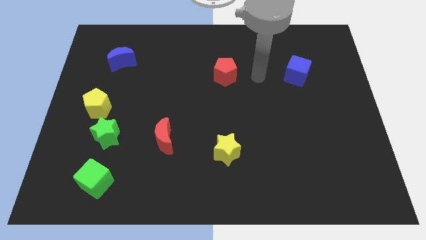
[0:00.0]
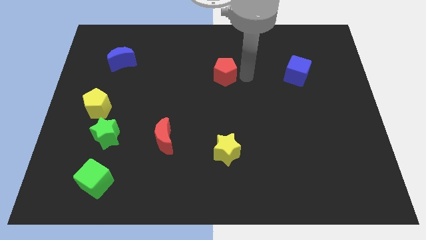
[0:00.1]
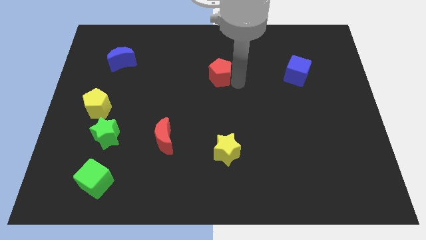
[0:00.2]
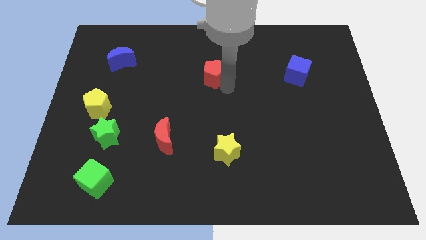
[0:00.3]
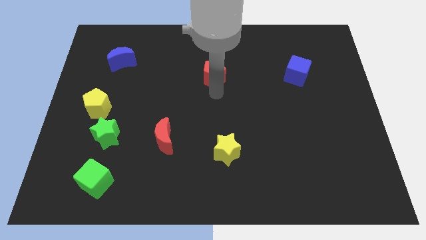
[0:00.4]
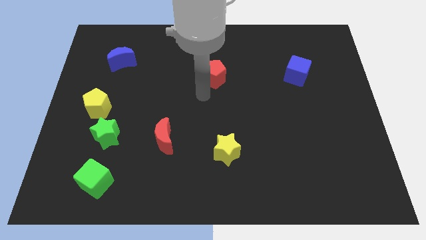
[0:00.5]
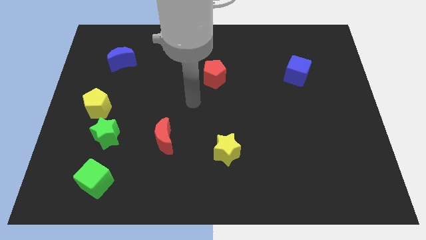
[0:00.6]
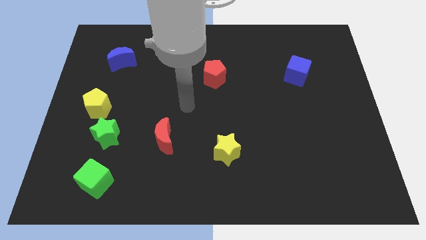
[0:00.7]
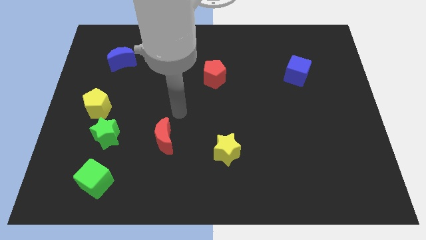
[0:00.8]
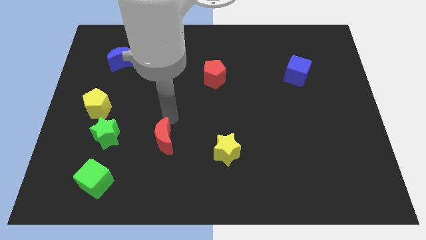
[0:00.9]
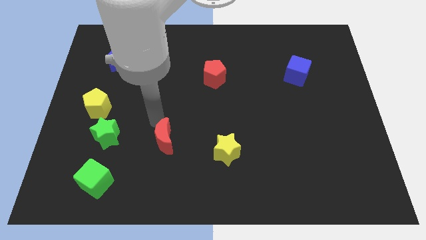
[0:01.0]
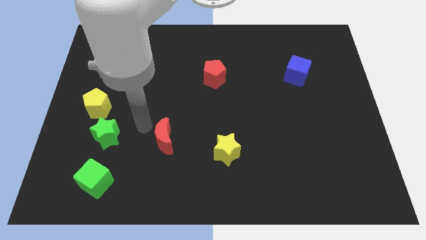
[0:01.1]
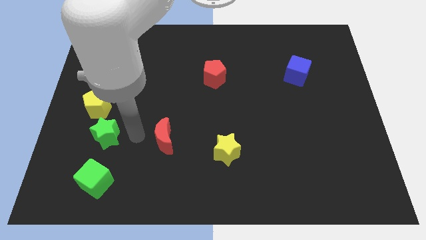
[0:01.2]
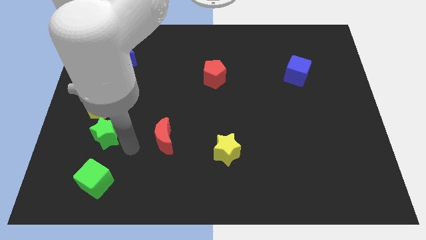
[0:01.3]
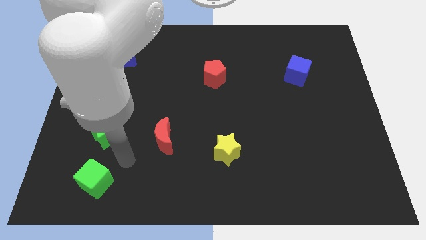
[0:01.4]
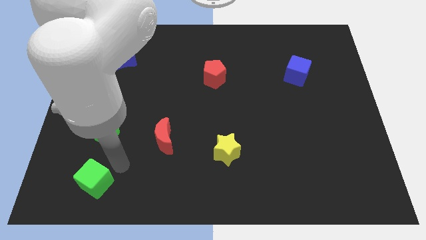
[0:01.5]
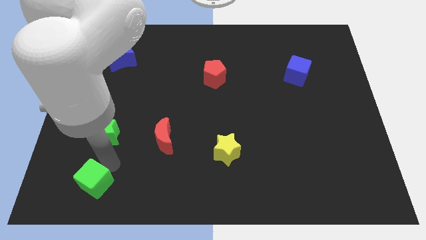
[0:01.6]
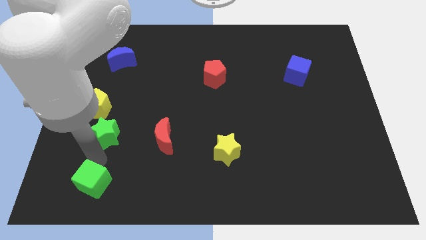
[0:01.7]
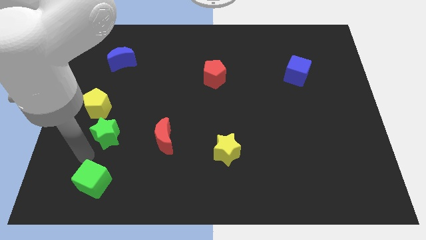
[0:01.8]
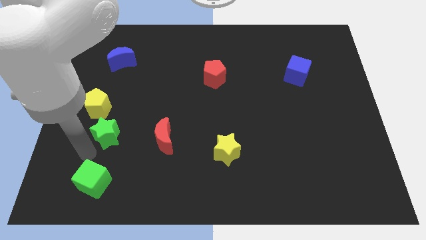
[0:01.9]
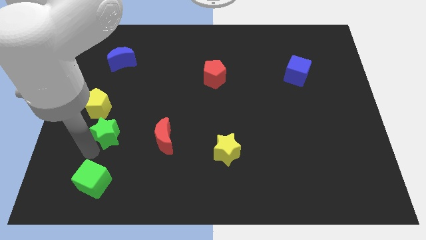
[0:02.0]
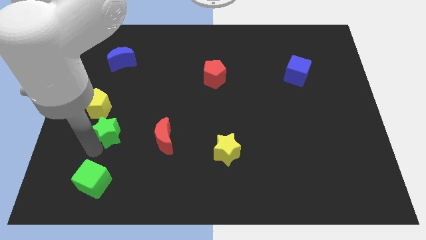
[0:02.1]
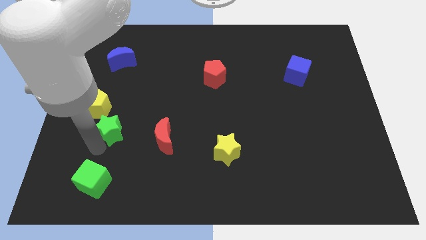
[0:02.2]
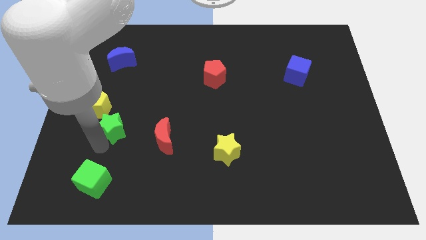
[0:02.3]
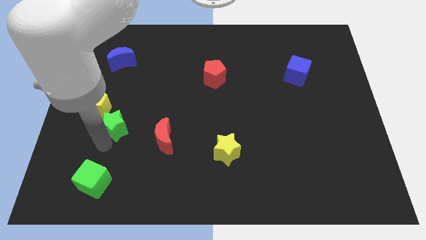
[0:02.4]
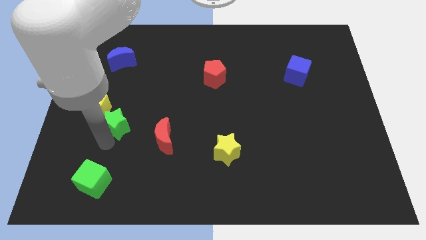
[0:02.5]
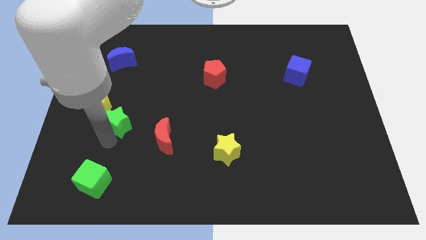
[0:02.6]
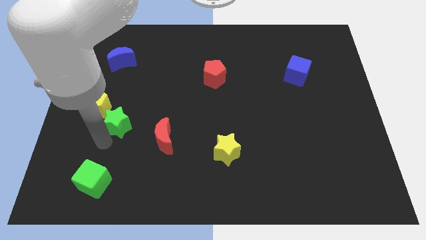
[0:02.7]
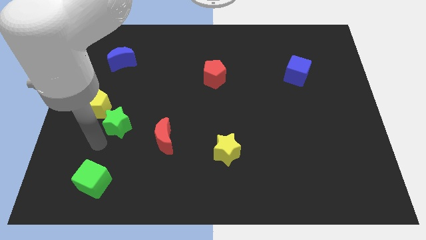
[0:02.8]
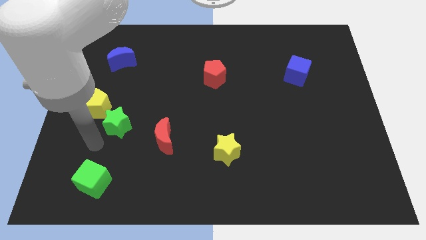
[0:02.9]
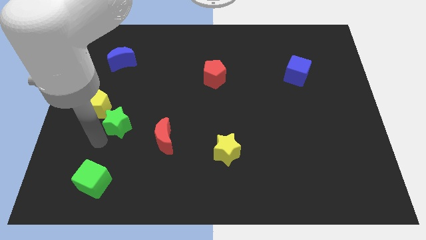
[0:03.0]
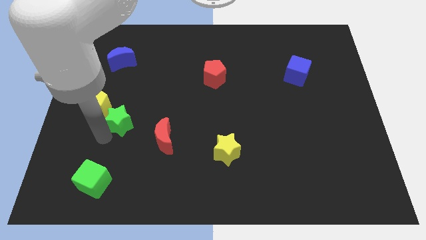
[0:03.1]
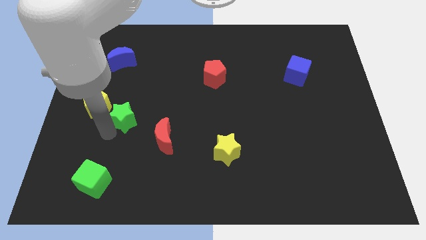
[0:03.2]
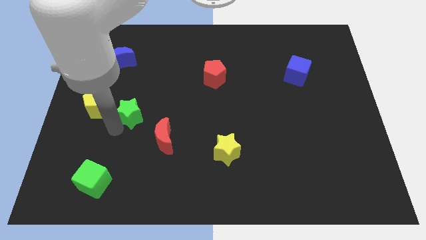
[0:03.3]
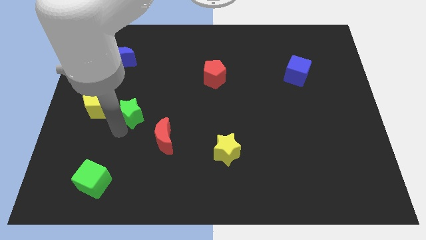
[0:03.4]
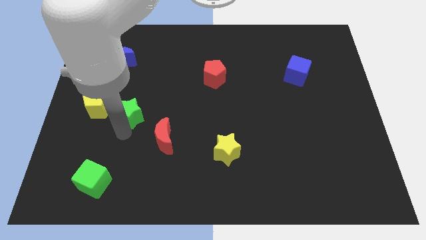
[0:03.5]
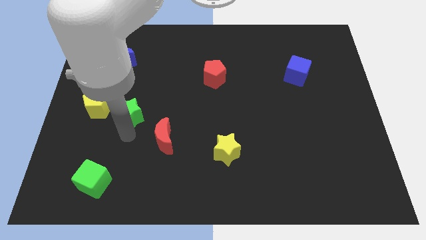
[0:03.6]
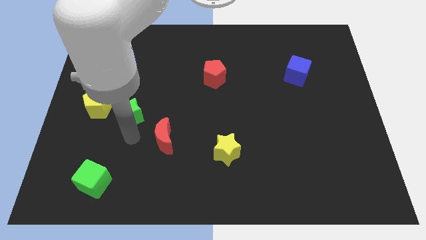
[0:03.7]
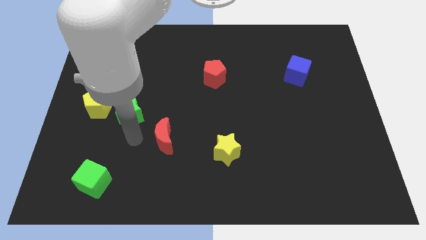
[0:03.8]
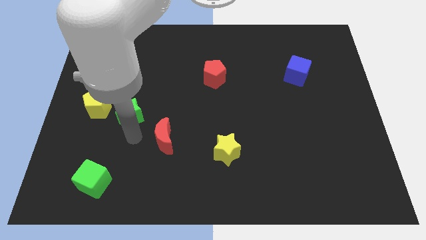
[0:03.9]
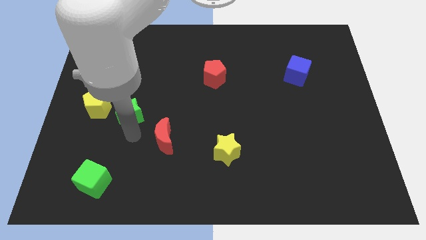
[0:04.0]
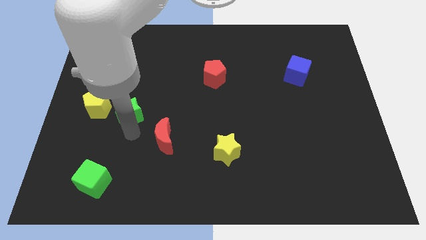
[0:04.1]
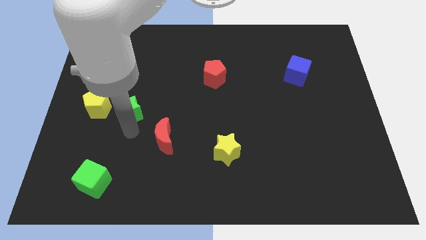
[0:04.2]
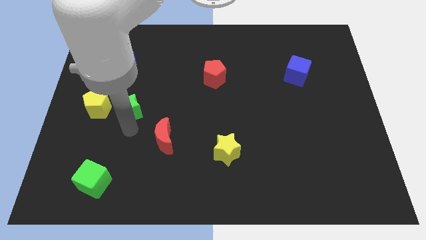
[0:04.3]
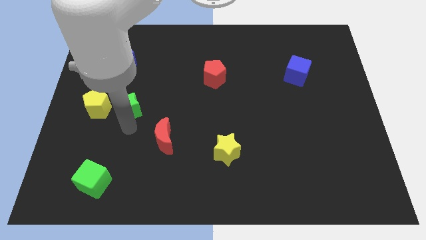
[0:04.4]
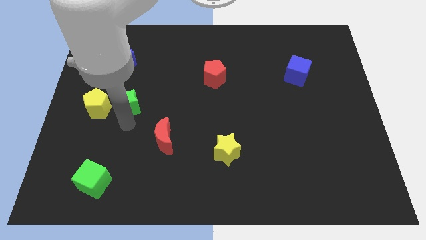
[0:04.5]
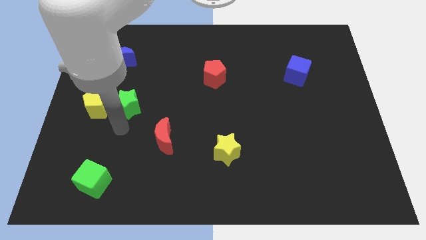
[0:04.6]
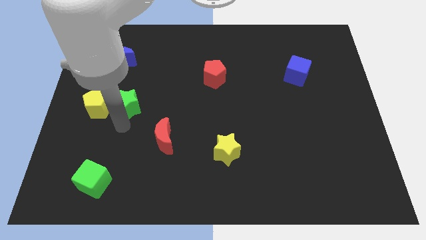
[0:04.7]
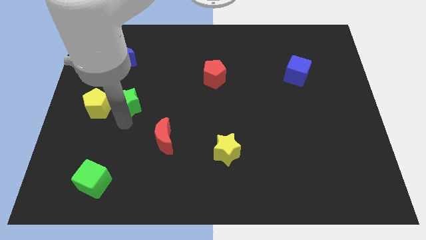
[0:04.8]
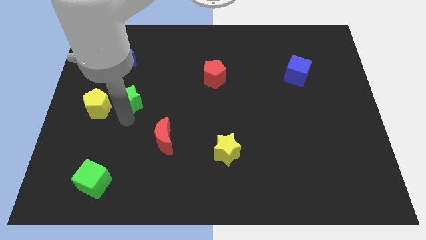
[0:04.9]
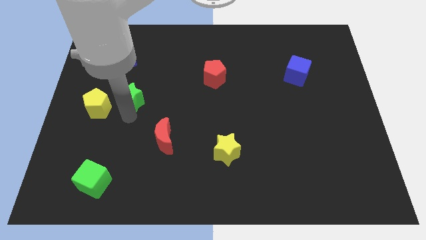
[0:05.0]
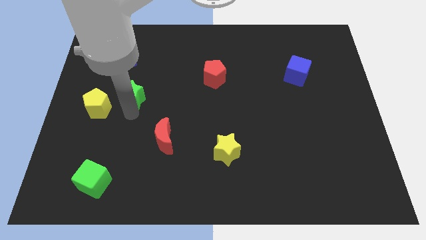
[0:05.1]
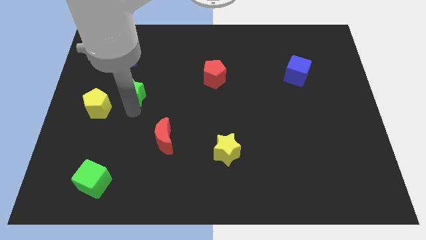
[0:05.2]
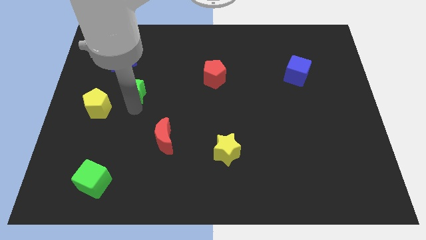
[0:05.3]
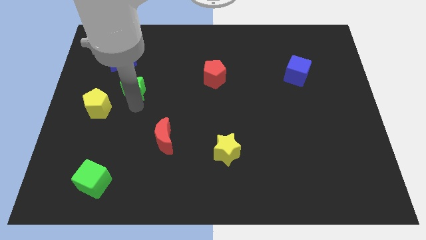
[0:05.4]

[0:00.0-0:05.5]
slide the green star to the bottom right side of the blue moon

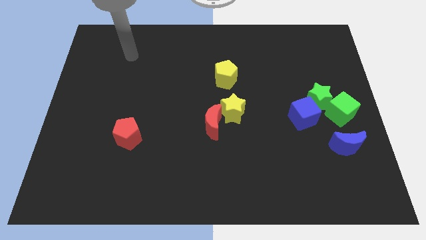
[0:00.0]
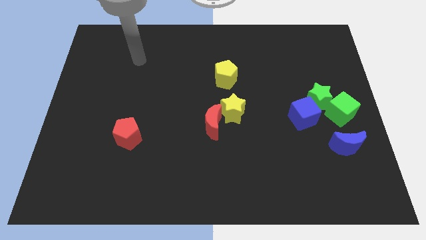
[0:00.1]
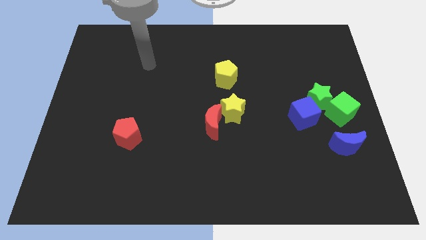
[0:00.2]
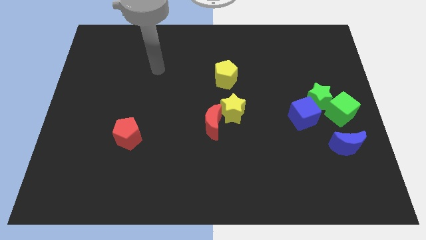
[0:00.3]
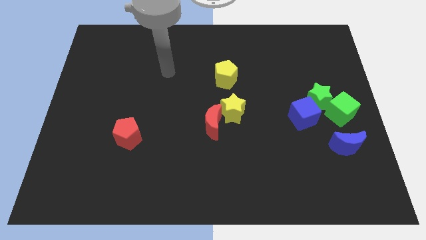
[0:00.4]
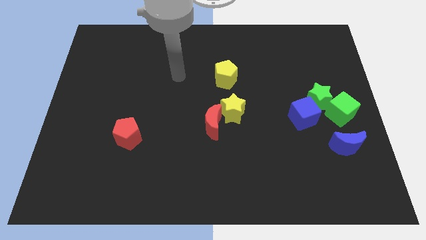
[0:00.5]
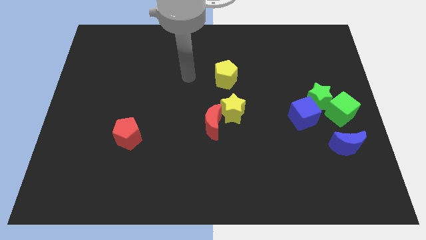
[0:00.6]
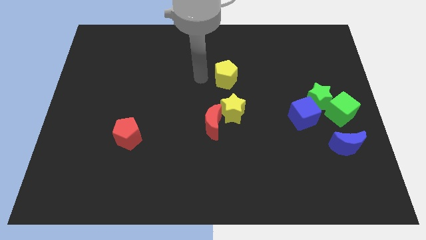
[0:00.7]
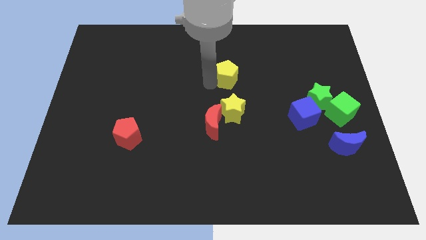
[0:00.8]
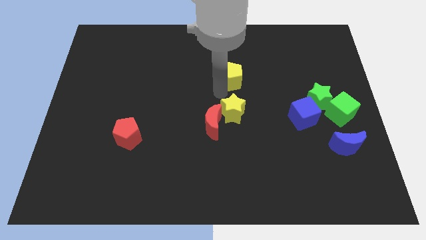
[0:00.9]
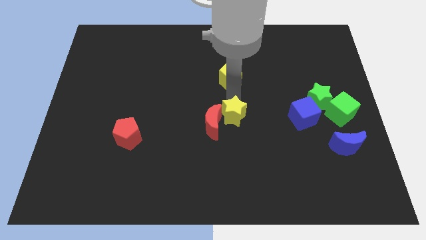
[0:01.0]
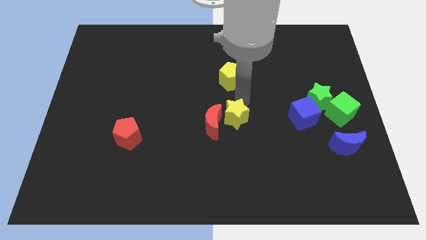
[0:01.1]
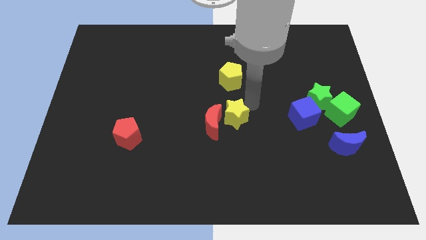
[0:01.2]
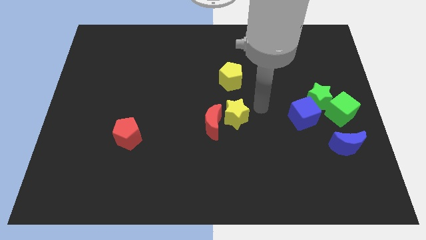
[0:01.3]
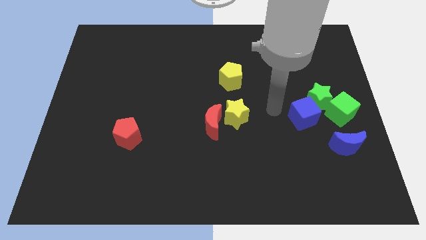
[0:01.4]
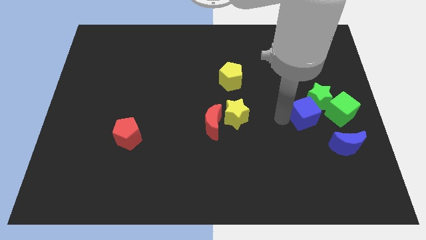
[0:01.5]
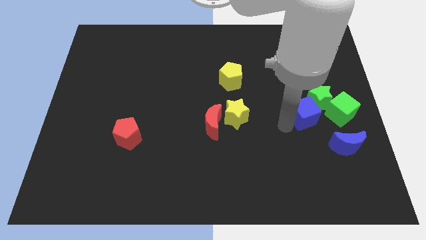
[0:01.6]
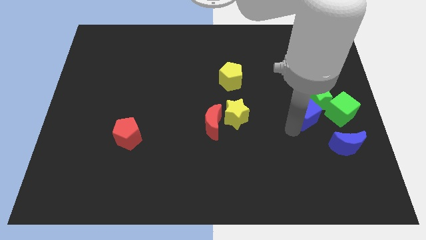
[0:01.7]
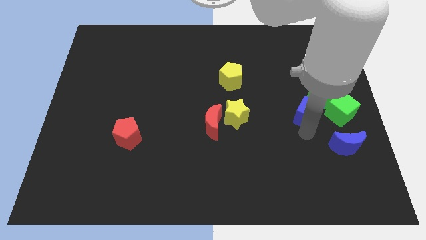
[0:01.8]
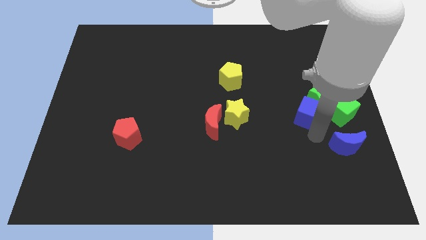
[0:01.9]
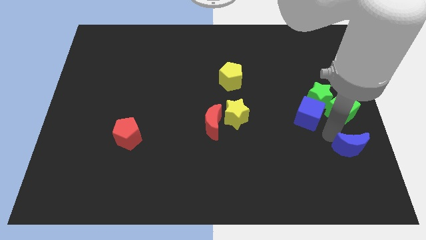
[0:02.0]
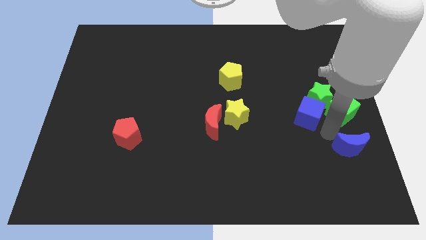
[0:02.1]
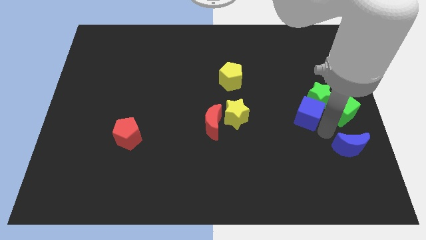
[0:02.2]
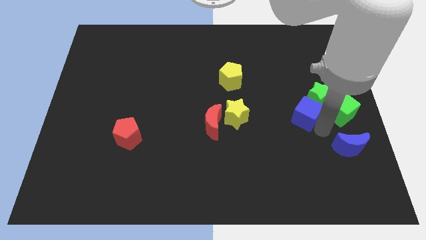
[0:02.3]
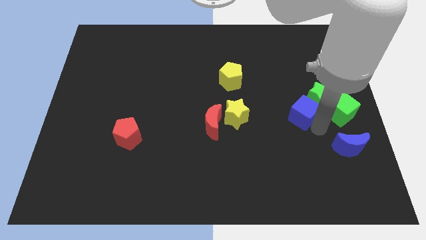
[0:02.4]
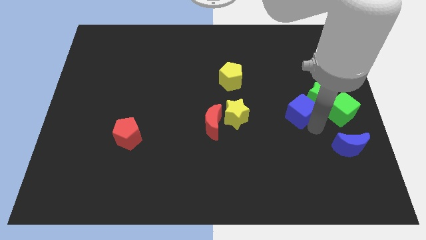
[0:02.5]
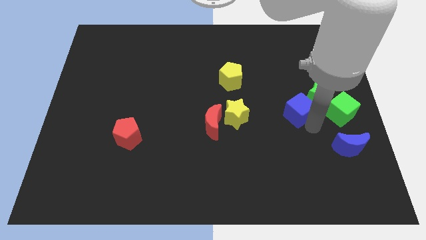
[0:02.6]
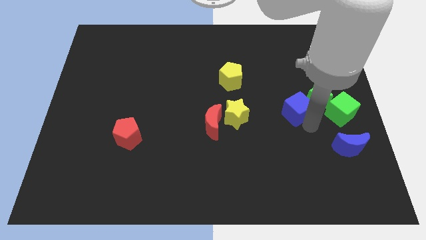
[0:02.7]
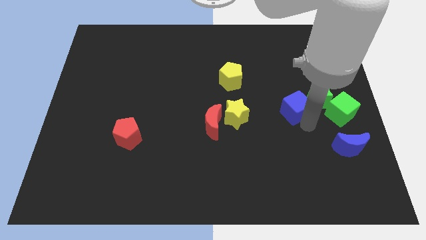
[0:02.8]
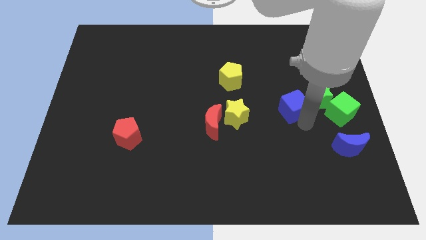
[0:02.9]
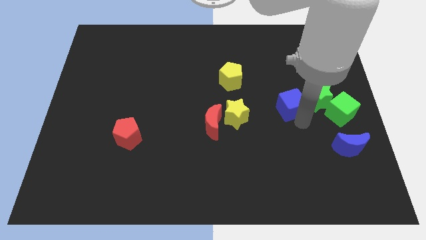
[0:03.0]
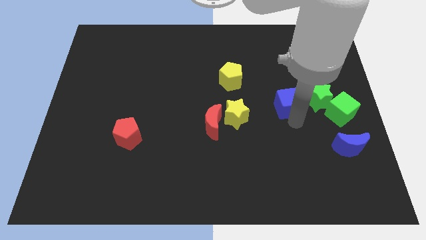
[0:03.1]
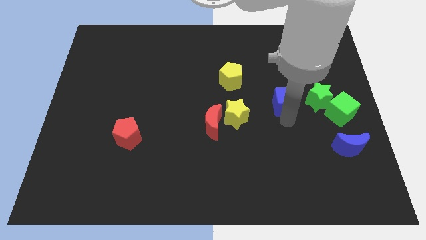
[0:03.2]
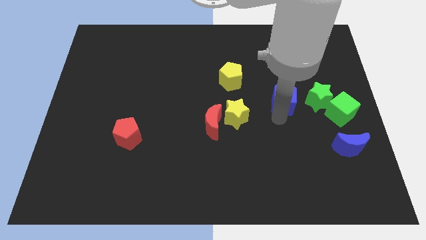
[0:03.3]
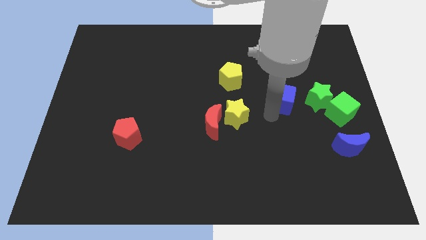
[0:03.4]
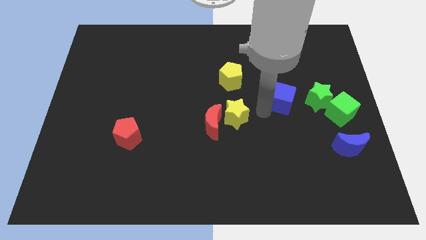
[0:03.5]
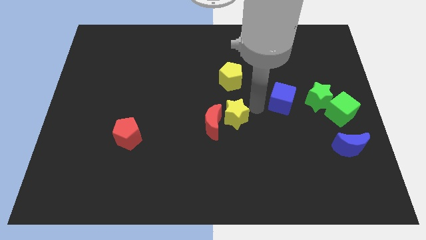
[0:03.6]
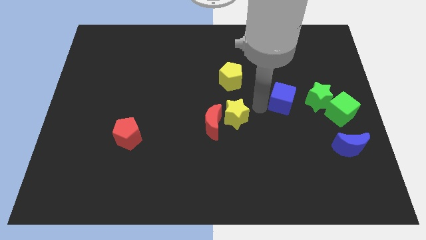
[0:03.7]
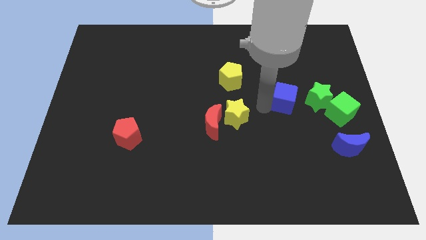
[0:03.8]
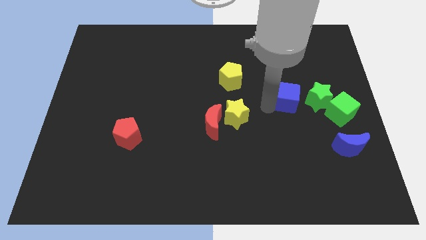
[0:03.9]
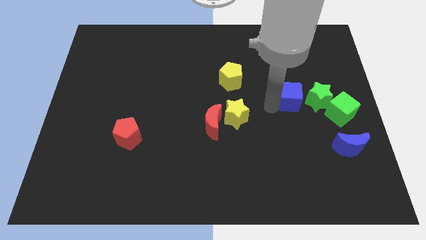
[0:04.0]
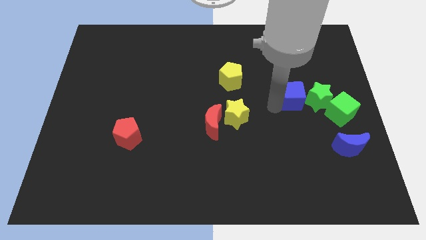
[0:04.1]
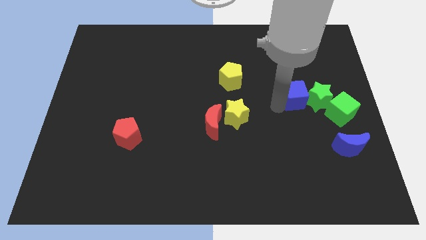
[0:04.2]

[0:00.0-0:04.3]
put the blue cube to the top left side of the green cube
